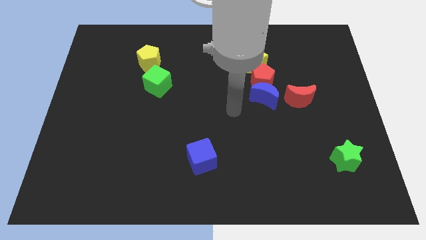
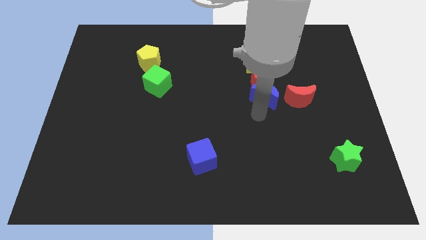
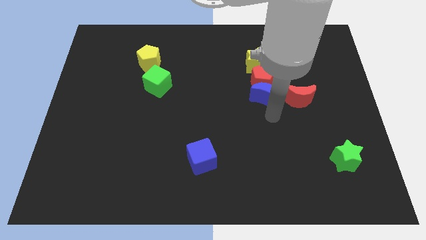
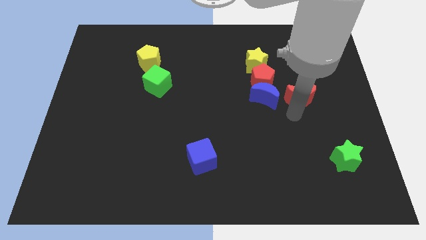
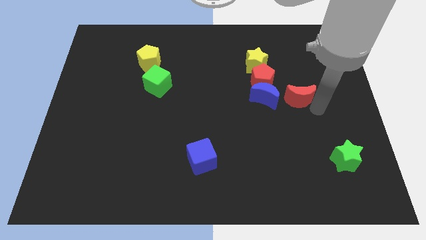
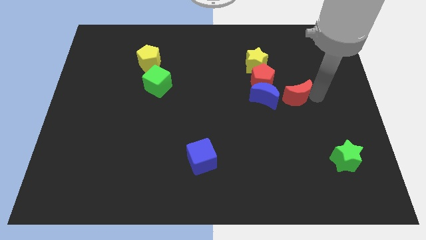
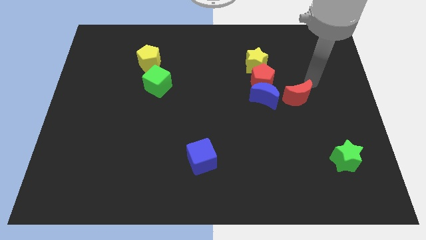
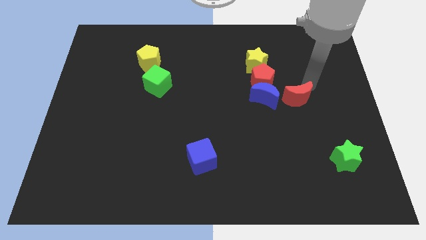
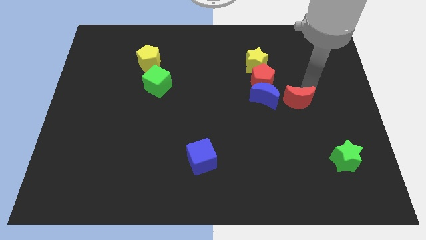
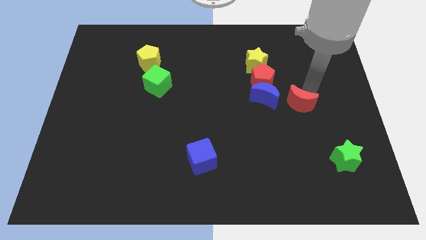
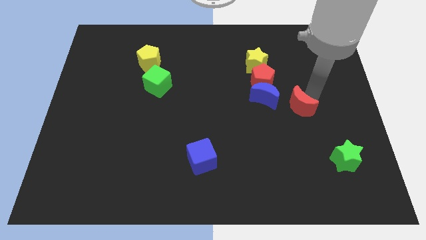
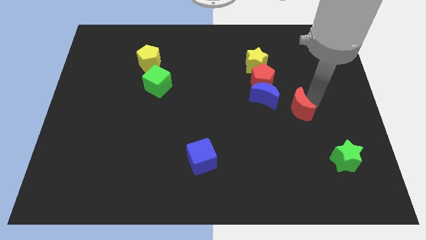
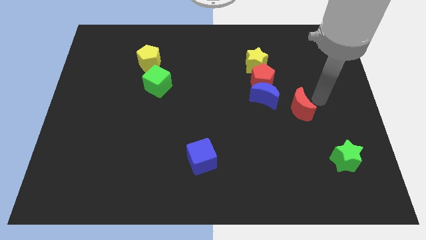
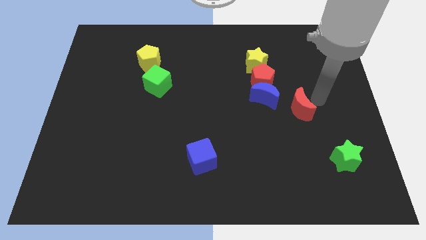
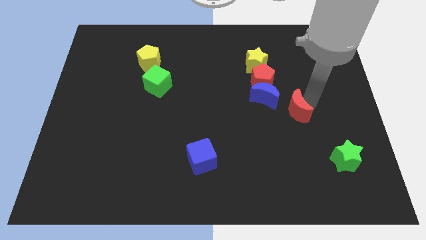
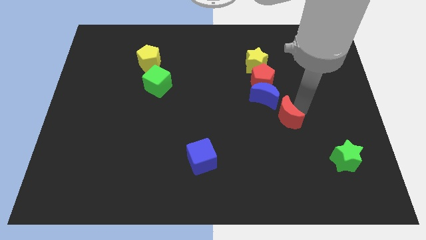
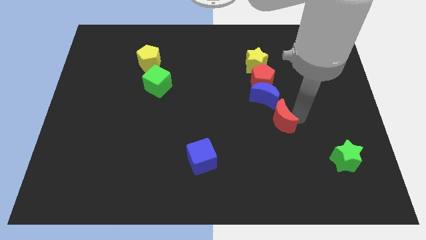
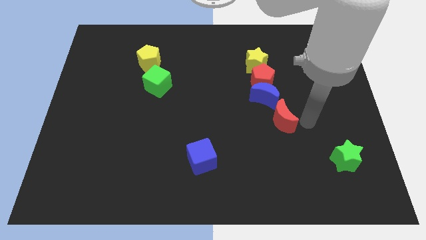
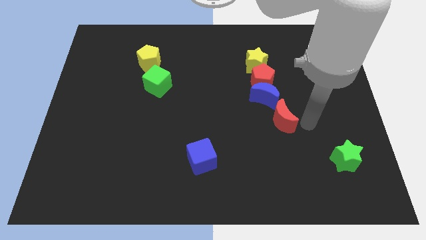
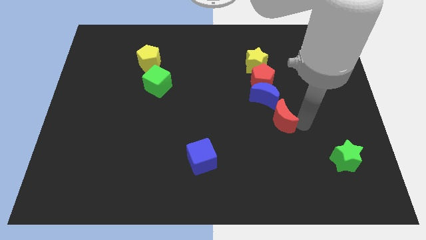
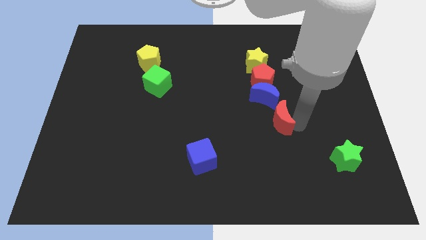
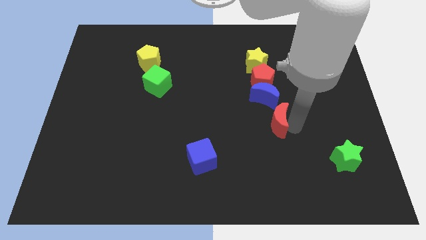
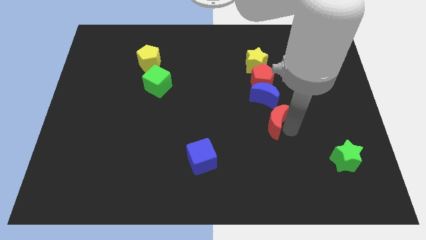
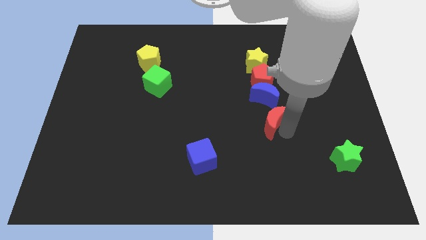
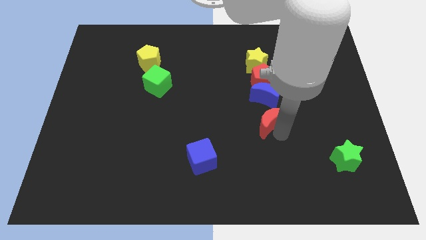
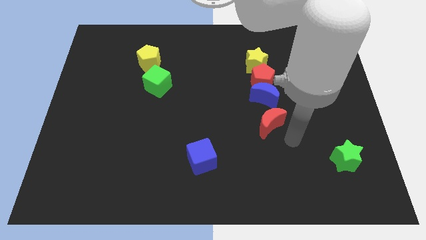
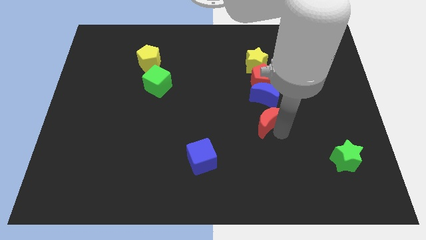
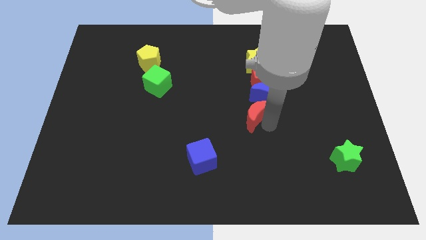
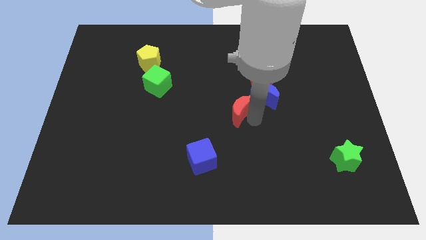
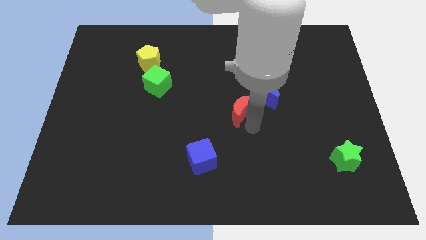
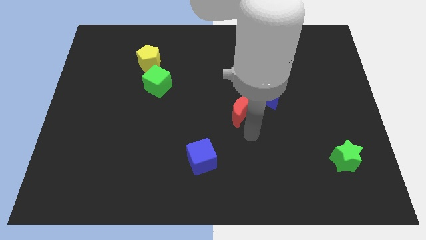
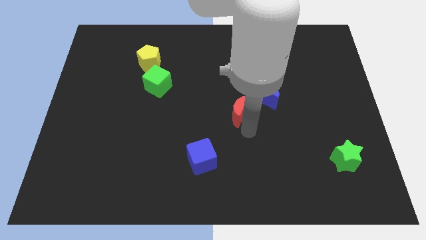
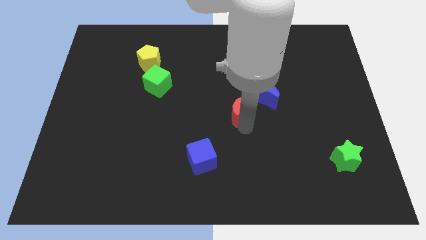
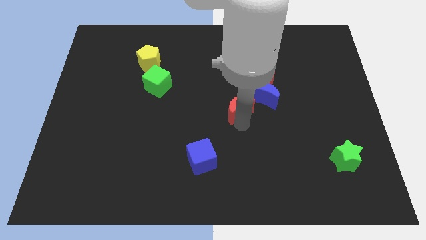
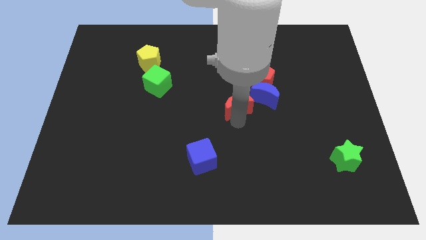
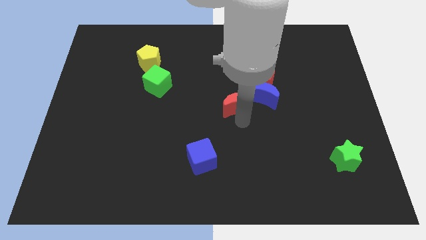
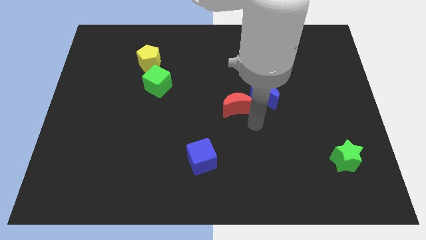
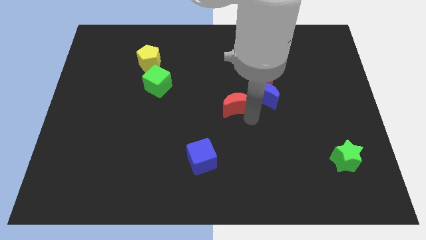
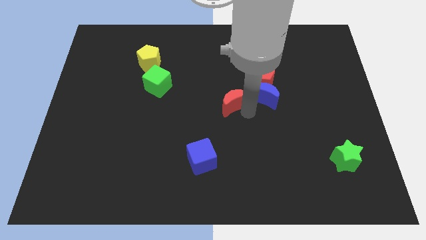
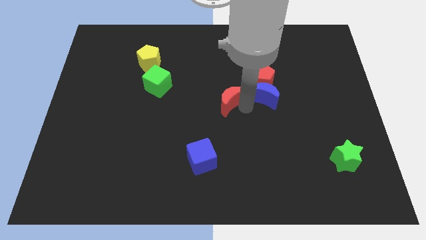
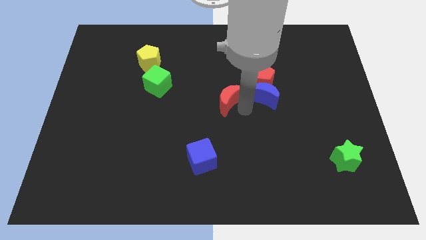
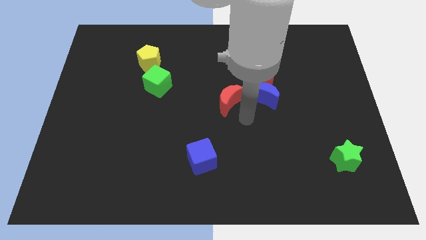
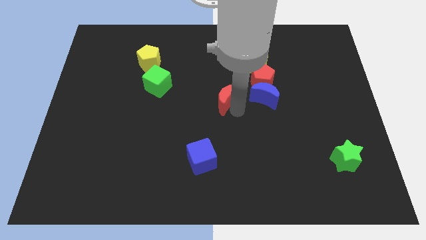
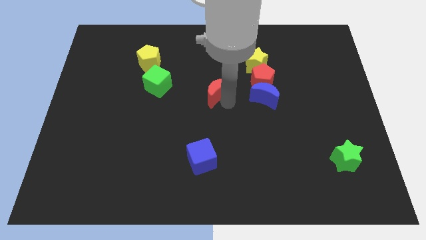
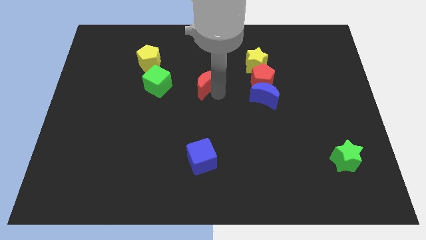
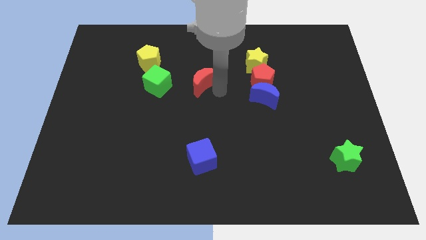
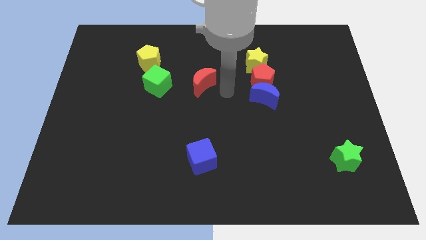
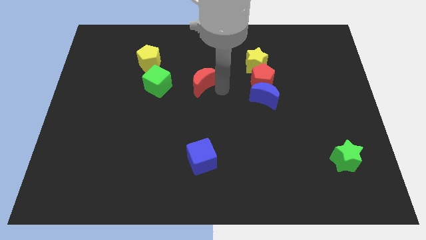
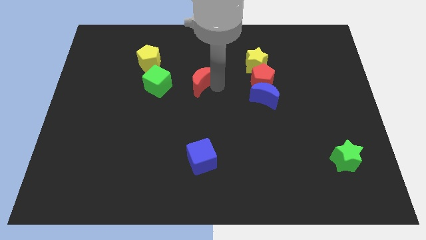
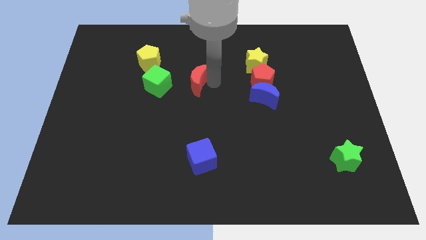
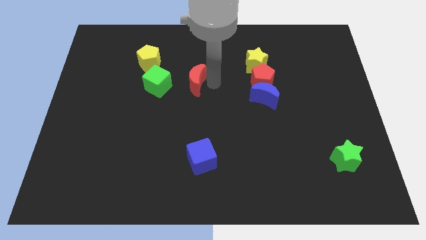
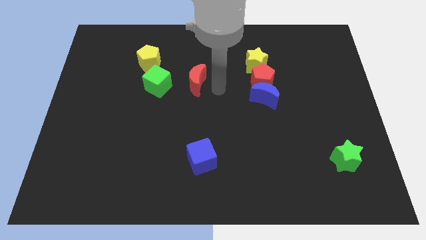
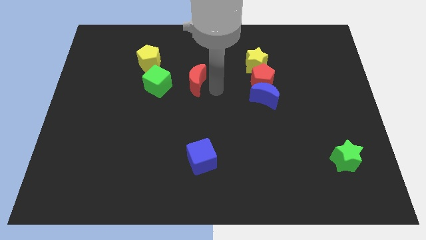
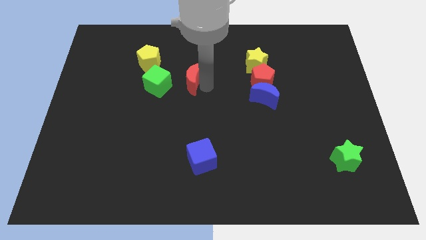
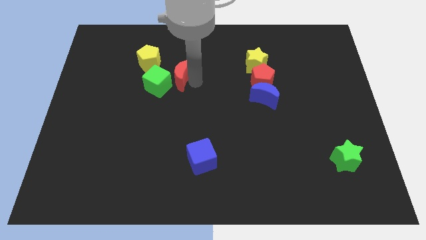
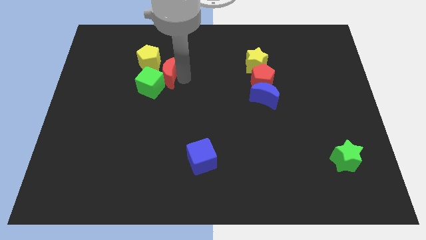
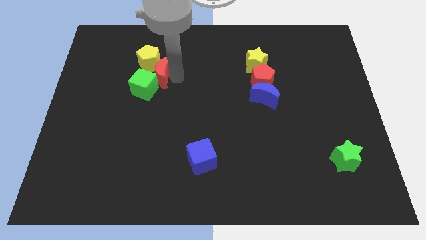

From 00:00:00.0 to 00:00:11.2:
slide the red moon close to the yellow pentagon

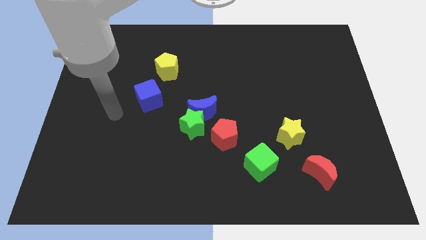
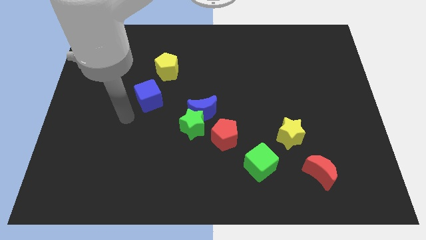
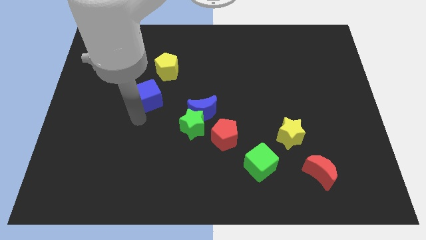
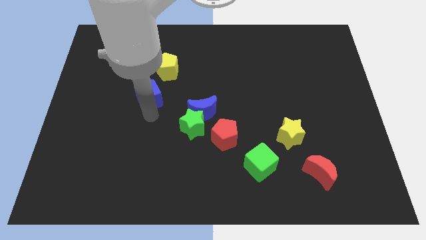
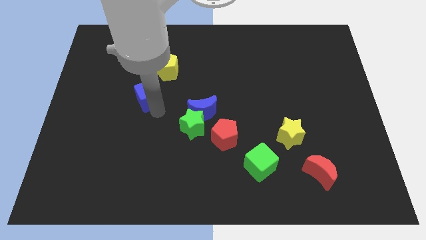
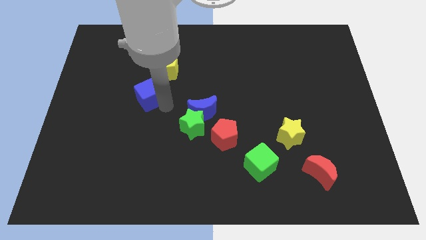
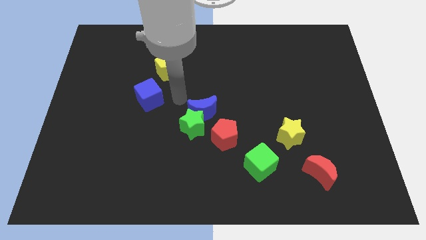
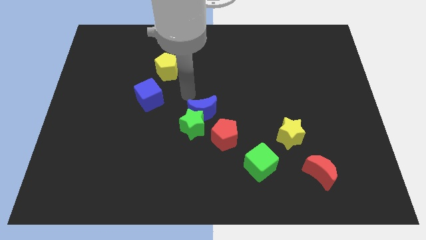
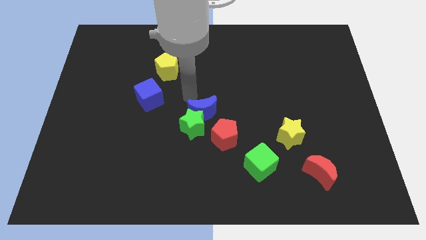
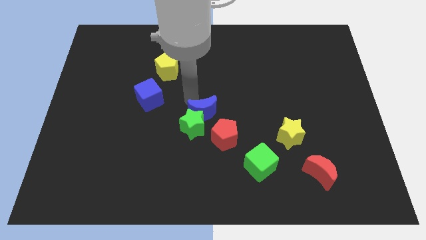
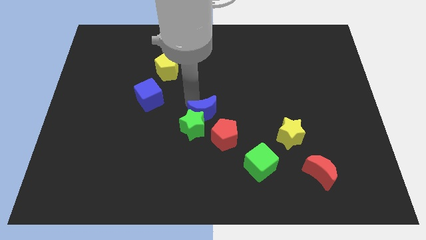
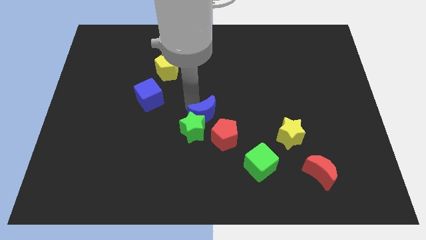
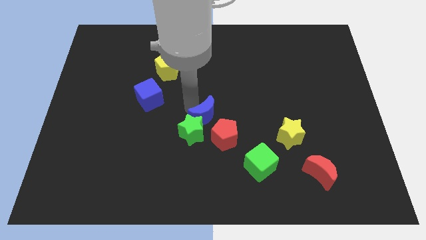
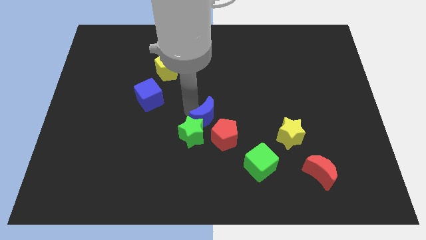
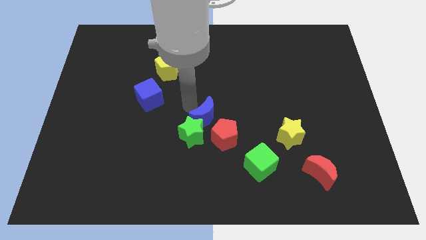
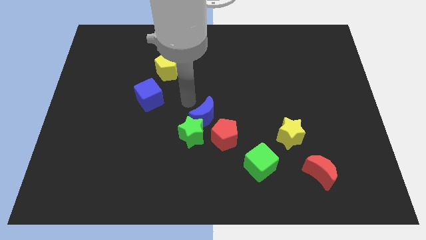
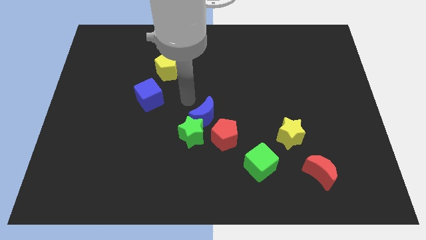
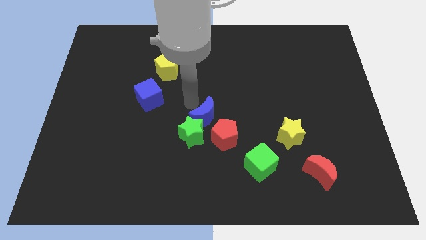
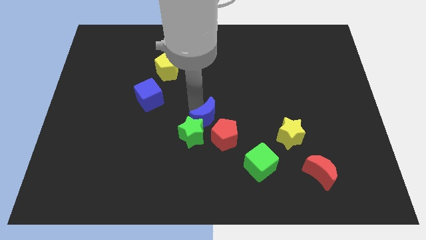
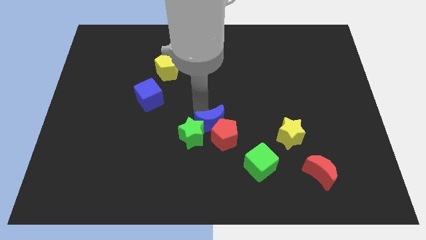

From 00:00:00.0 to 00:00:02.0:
put the blue moon close to the red pentagon
